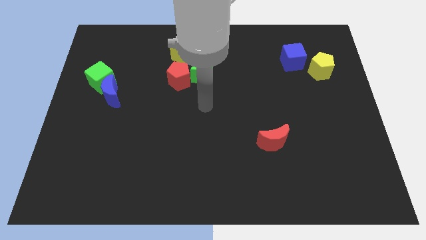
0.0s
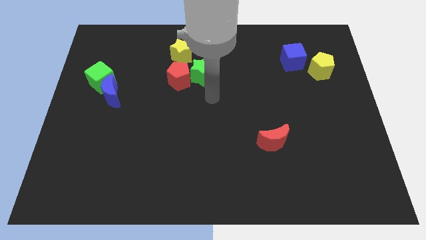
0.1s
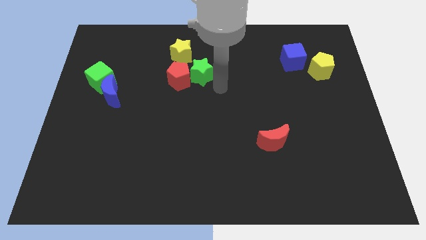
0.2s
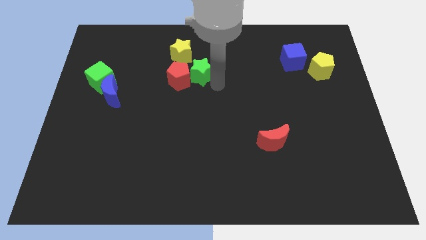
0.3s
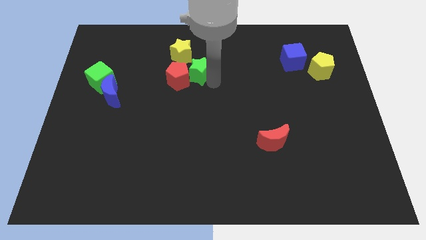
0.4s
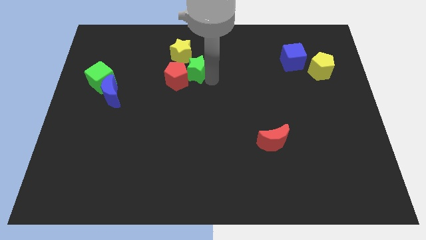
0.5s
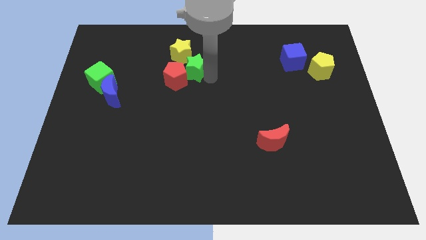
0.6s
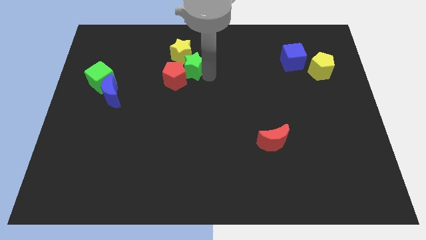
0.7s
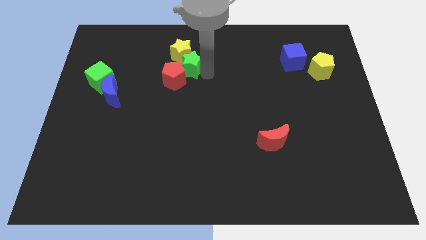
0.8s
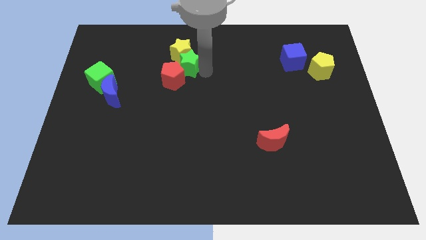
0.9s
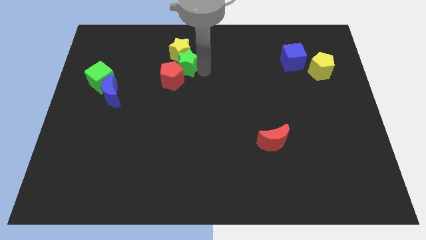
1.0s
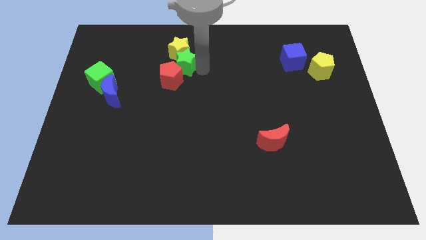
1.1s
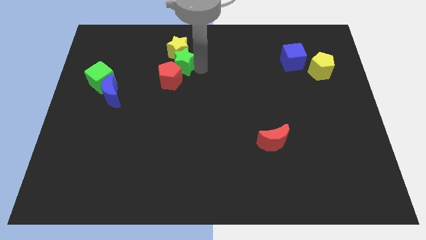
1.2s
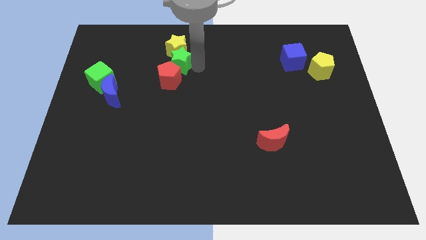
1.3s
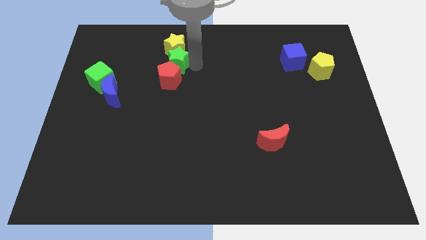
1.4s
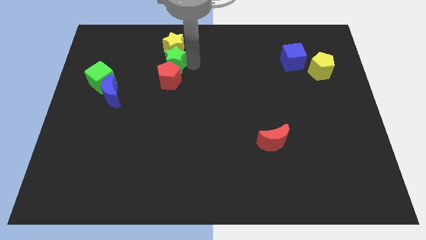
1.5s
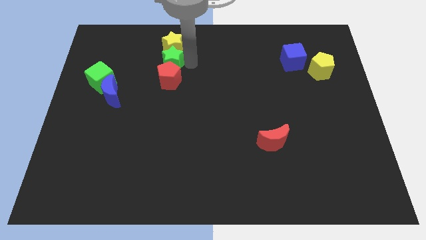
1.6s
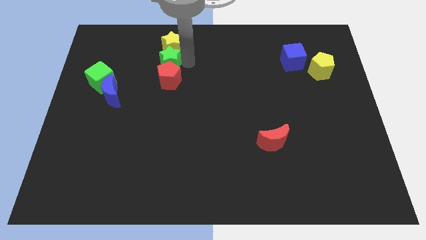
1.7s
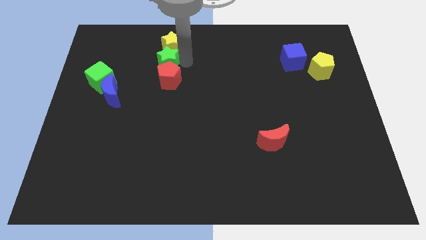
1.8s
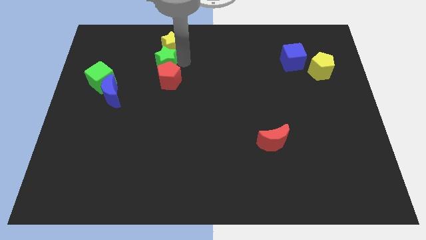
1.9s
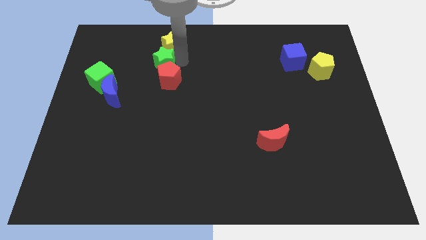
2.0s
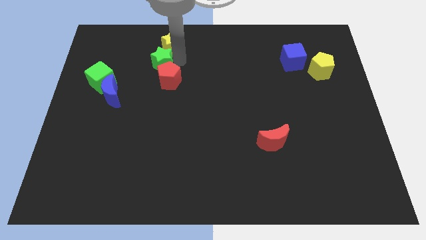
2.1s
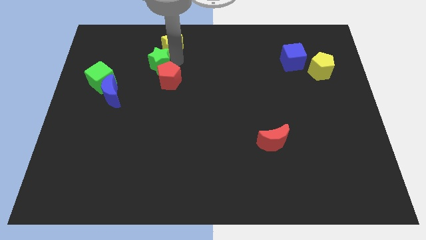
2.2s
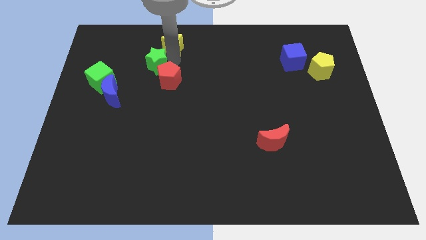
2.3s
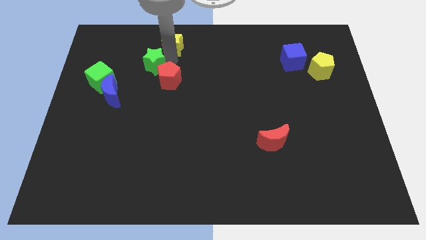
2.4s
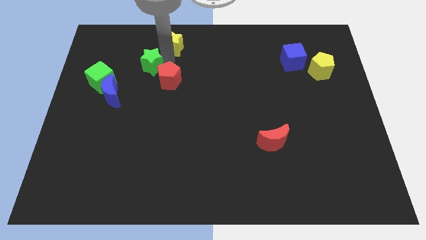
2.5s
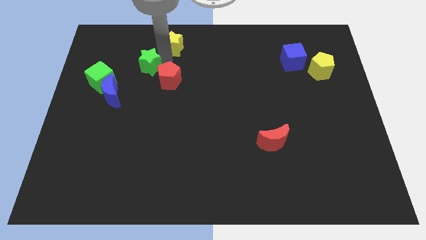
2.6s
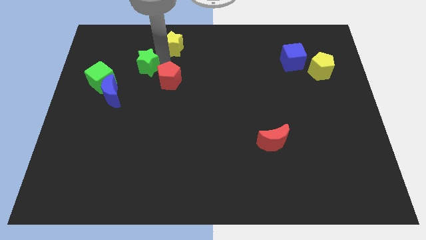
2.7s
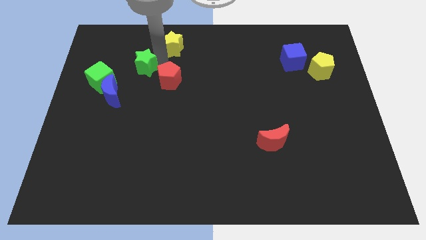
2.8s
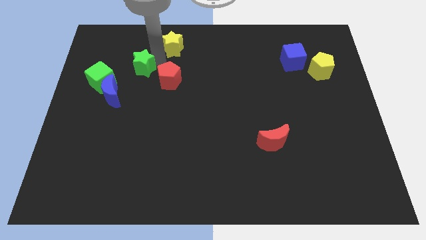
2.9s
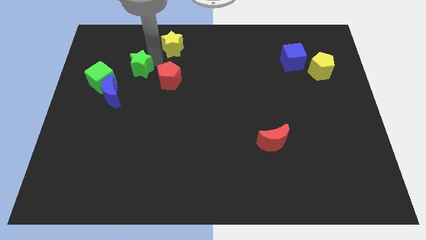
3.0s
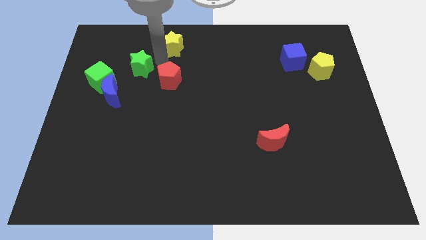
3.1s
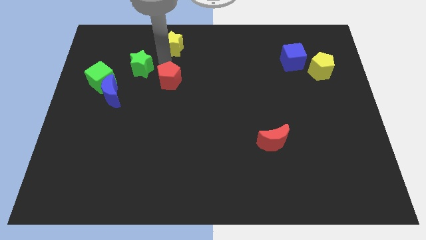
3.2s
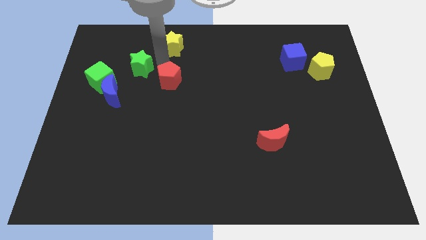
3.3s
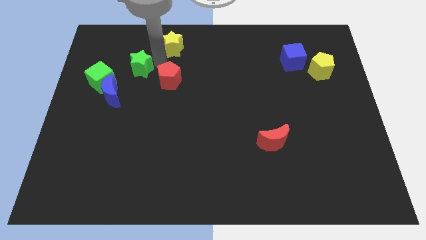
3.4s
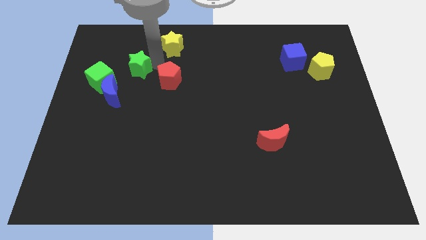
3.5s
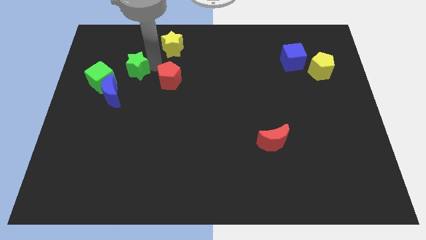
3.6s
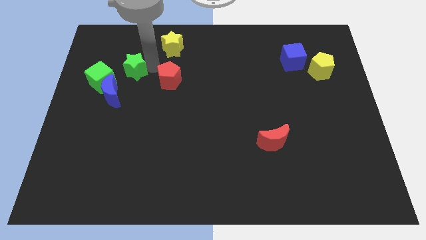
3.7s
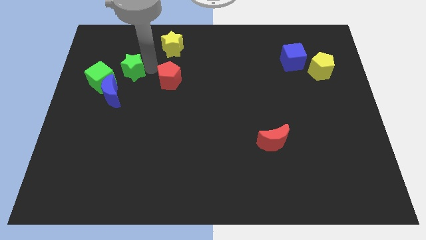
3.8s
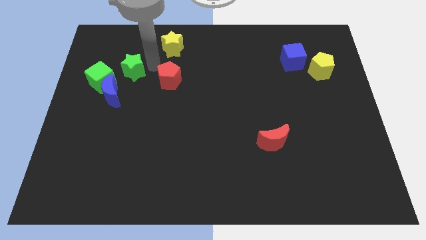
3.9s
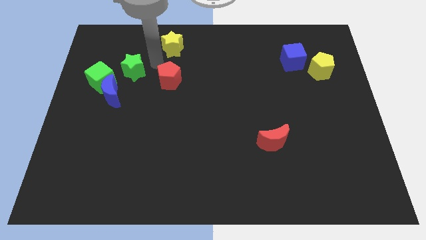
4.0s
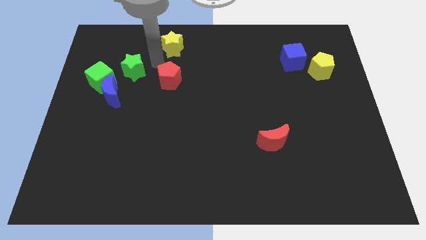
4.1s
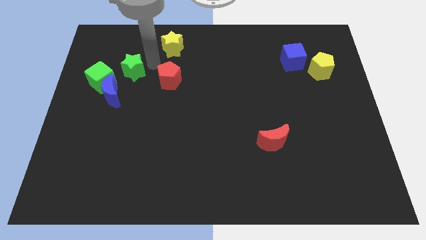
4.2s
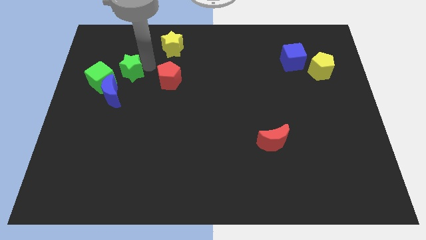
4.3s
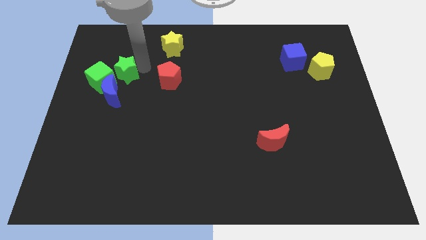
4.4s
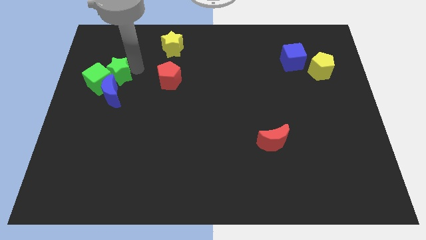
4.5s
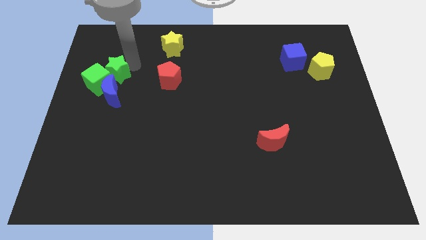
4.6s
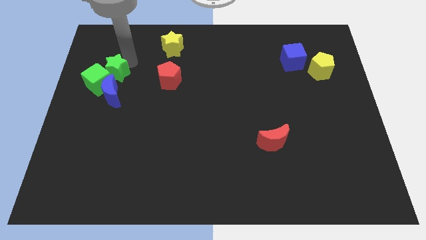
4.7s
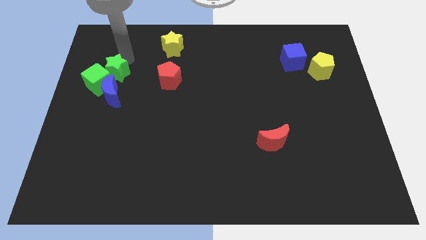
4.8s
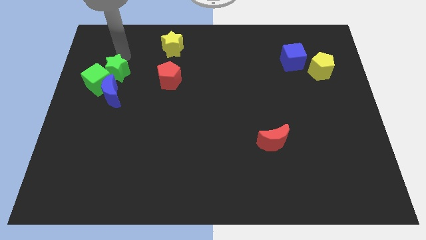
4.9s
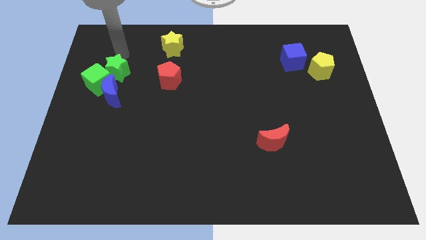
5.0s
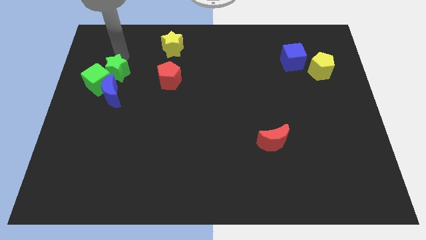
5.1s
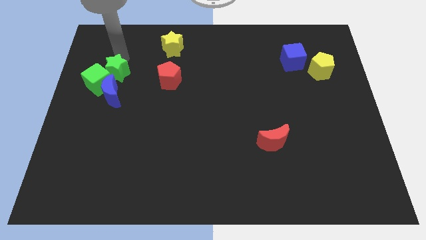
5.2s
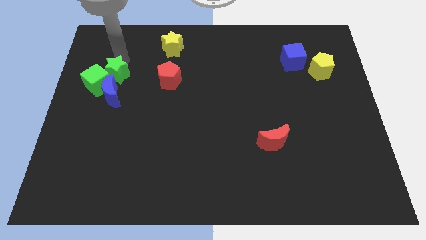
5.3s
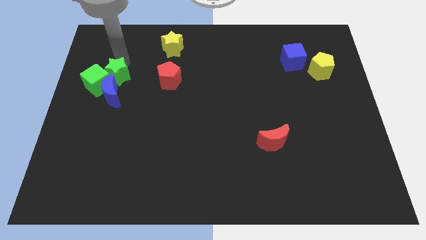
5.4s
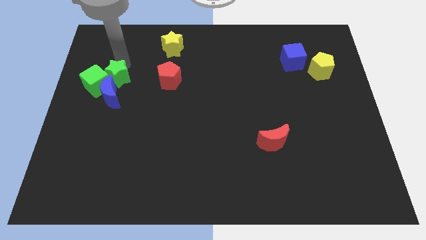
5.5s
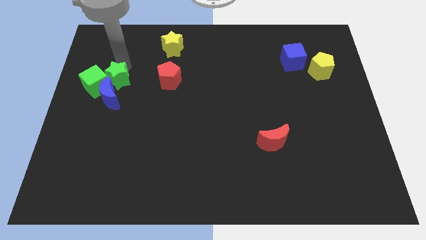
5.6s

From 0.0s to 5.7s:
put the green star close to the blue moon

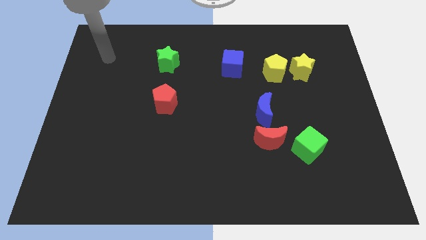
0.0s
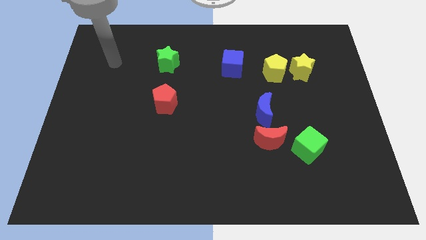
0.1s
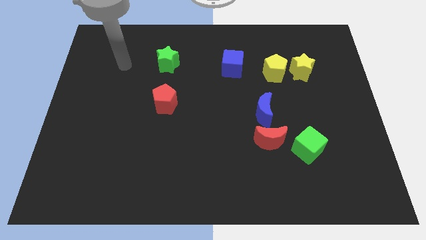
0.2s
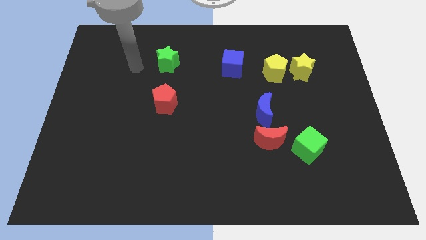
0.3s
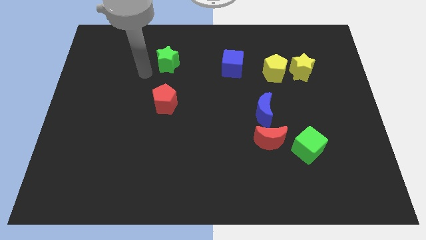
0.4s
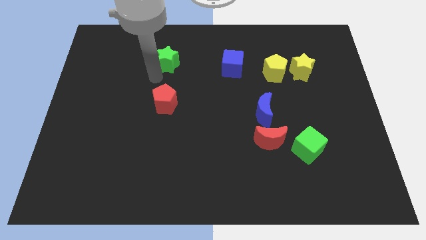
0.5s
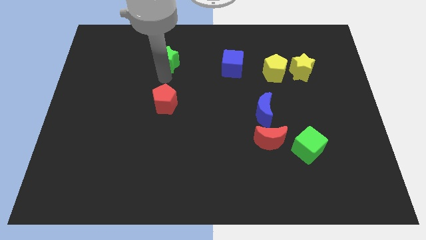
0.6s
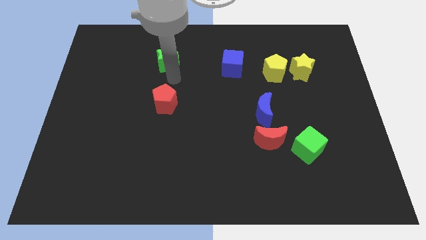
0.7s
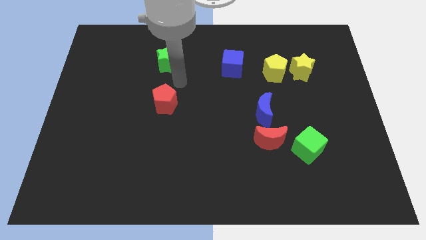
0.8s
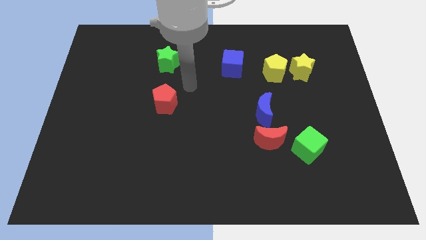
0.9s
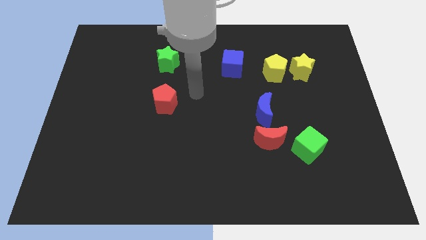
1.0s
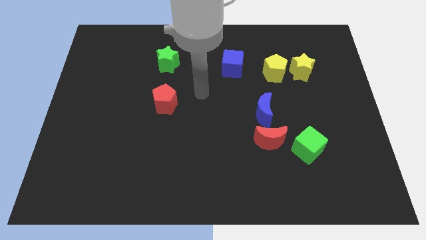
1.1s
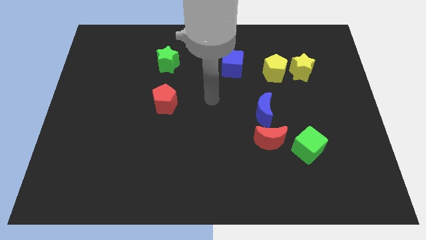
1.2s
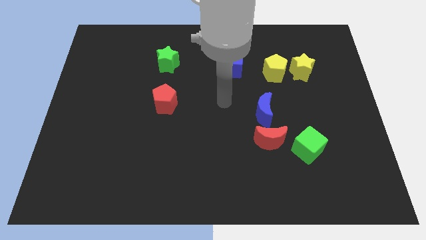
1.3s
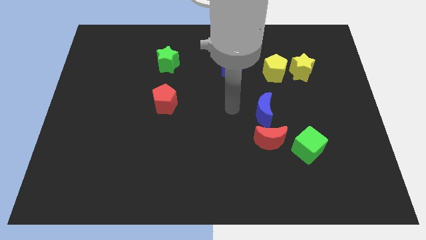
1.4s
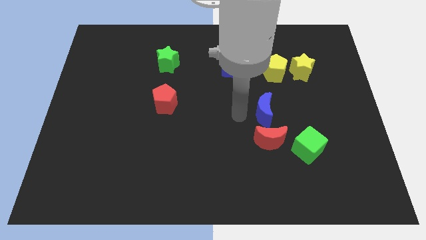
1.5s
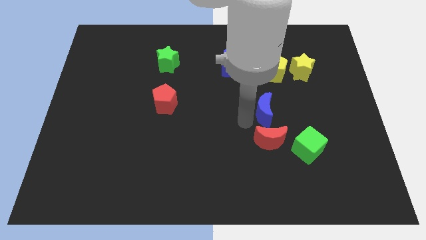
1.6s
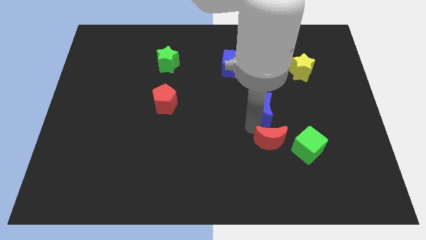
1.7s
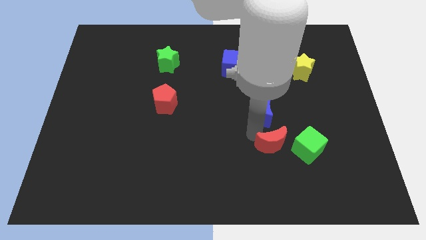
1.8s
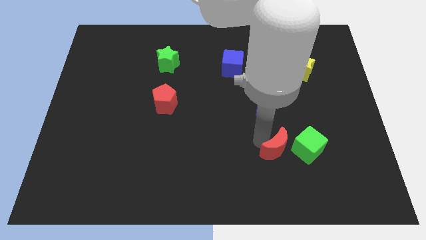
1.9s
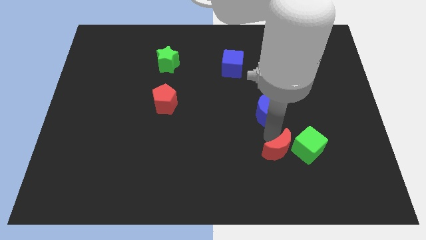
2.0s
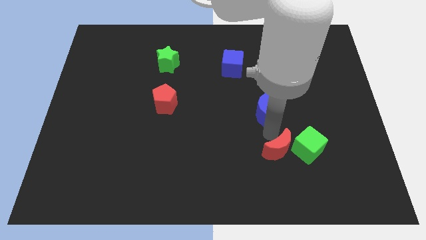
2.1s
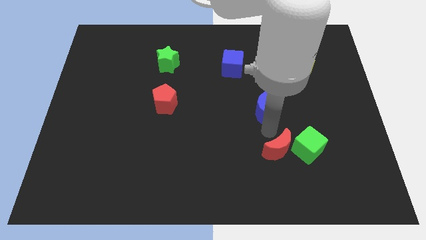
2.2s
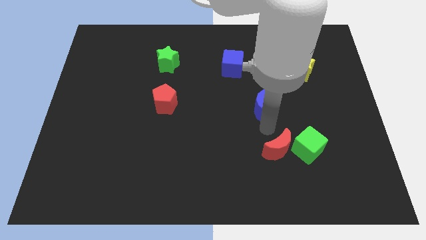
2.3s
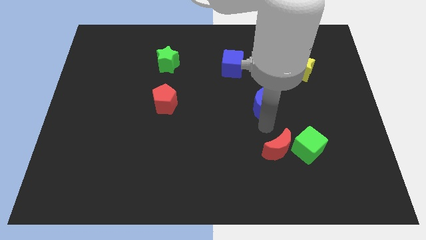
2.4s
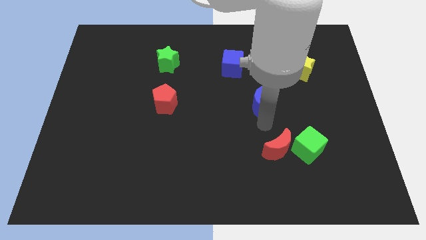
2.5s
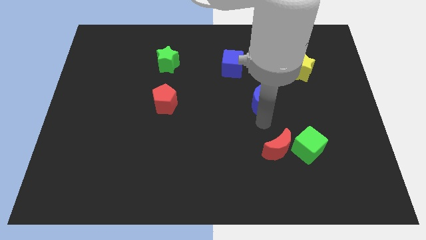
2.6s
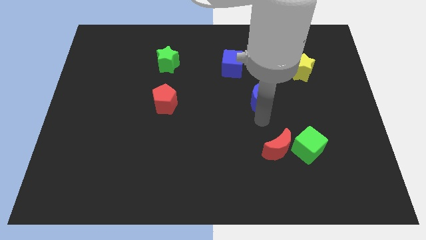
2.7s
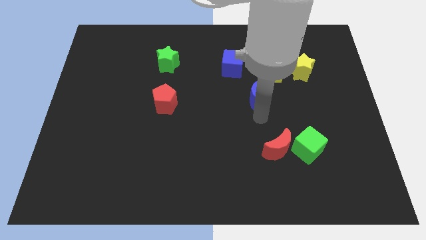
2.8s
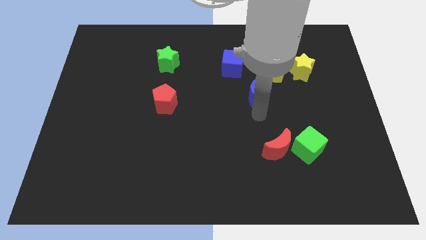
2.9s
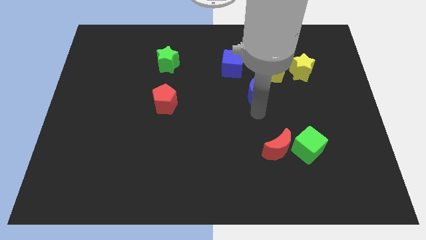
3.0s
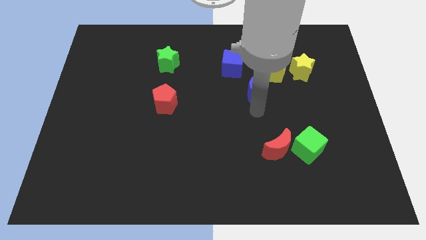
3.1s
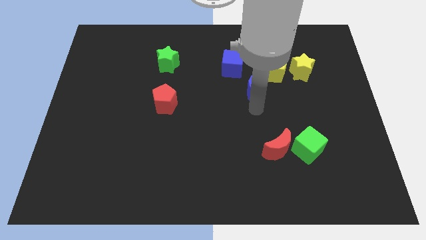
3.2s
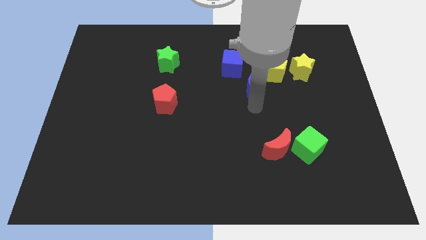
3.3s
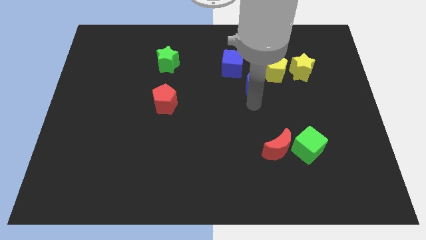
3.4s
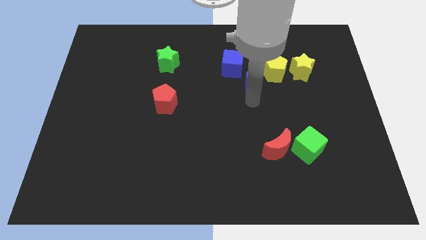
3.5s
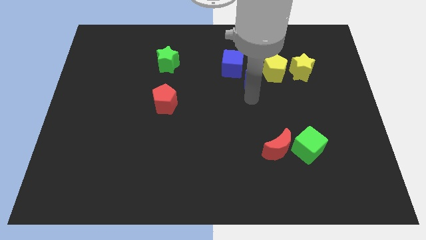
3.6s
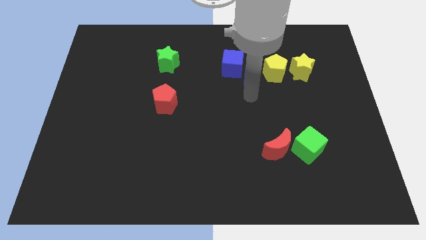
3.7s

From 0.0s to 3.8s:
push the blue moon next to the blue cube
